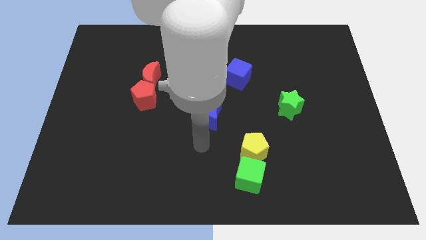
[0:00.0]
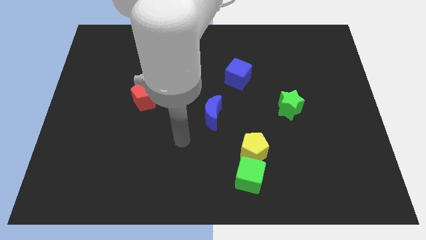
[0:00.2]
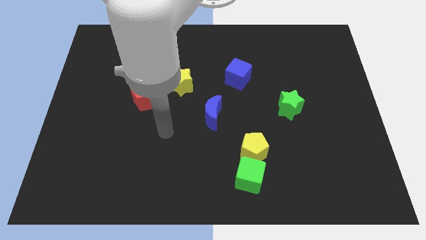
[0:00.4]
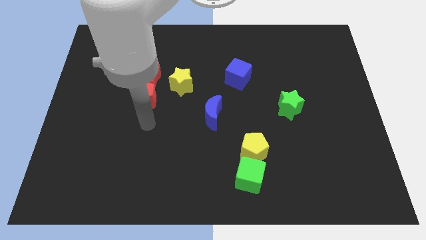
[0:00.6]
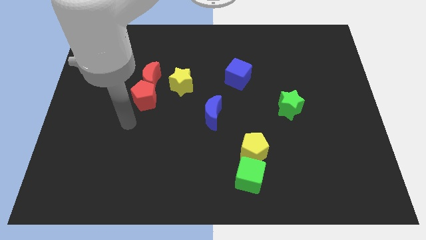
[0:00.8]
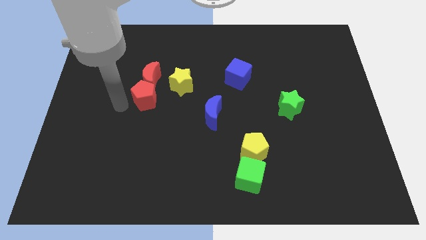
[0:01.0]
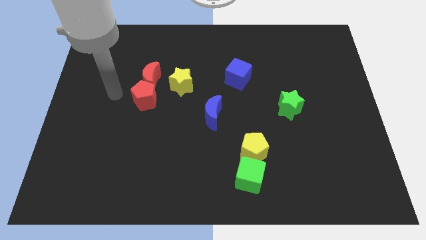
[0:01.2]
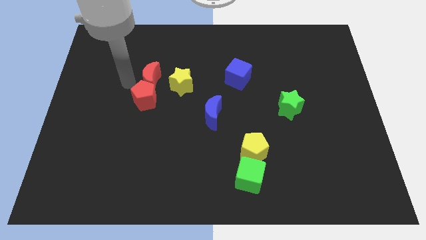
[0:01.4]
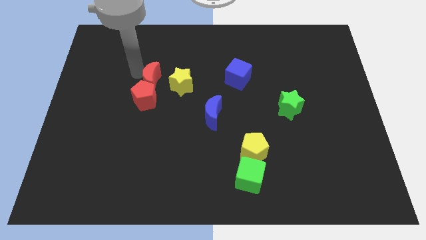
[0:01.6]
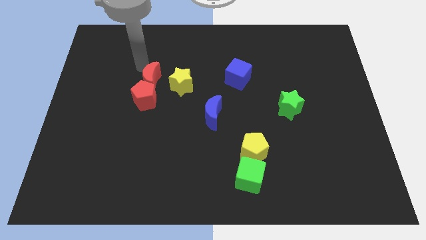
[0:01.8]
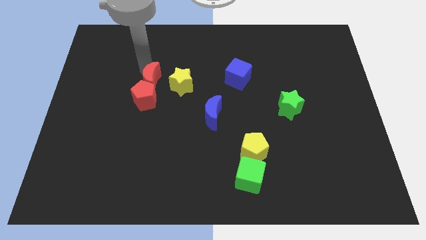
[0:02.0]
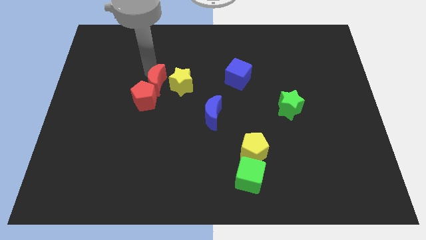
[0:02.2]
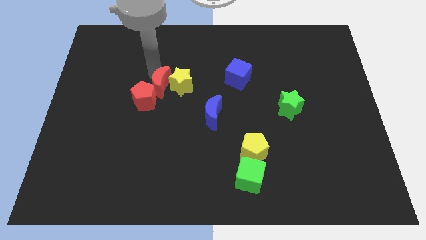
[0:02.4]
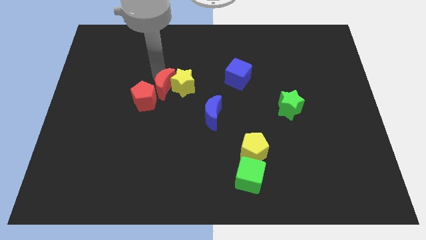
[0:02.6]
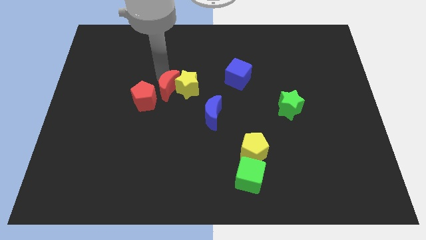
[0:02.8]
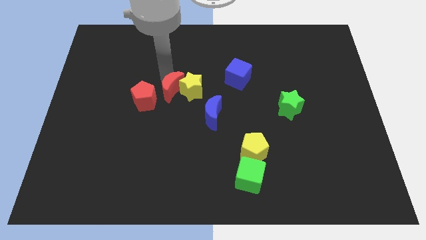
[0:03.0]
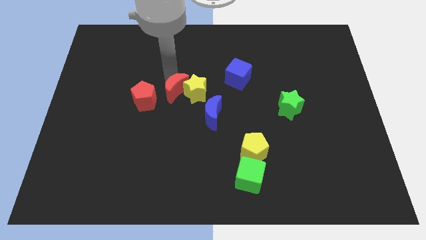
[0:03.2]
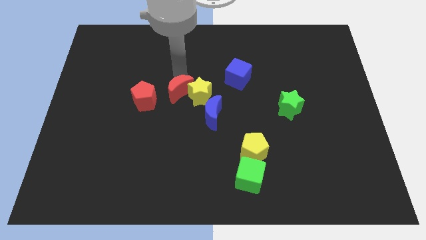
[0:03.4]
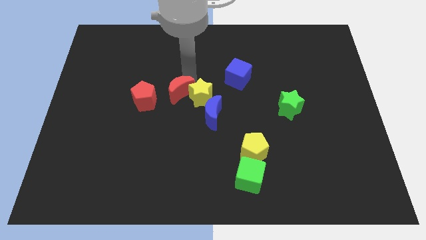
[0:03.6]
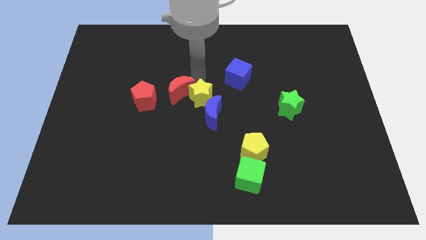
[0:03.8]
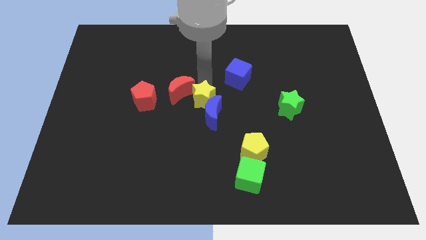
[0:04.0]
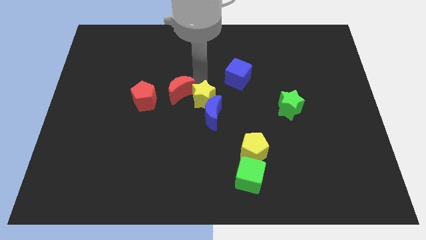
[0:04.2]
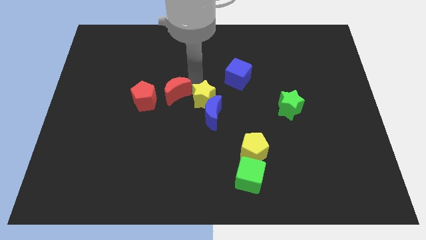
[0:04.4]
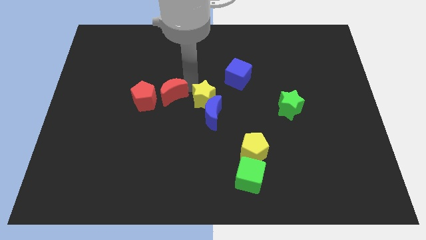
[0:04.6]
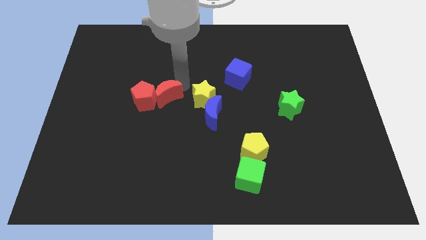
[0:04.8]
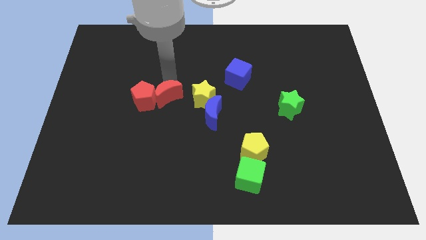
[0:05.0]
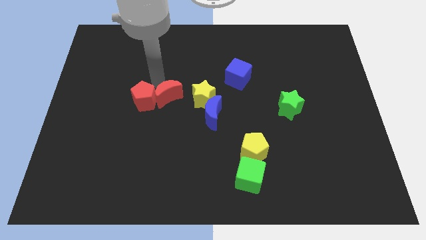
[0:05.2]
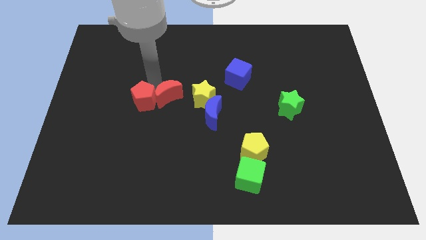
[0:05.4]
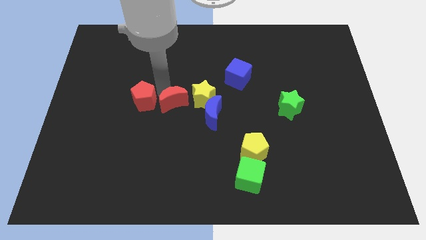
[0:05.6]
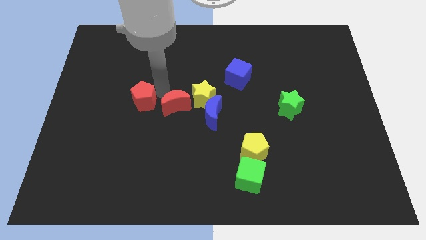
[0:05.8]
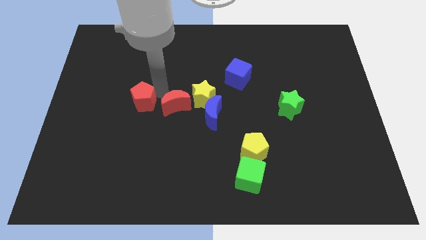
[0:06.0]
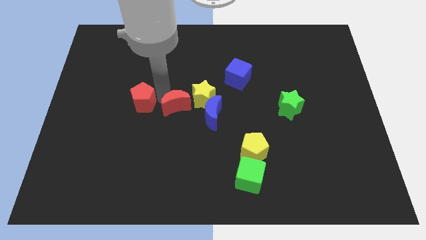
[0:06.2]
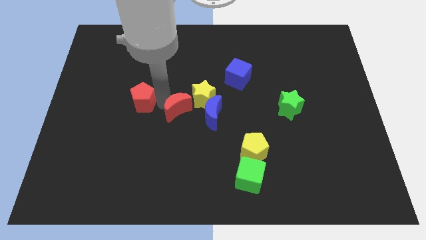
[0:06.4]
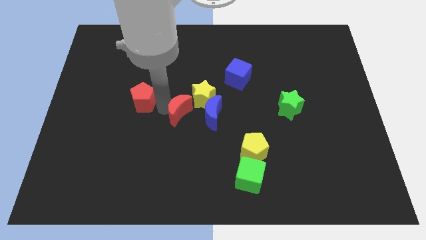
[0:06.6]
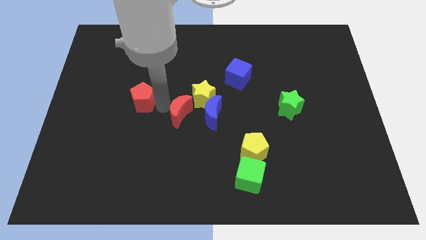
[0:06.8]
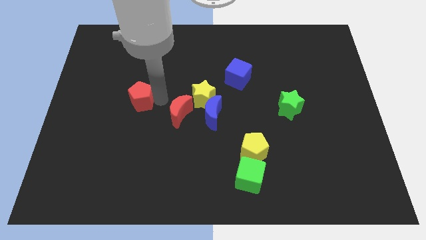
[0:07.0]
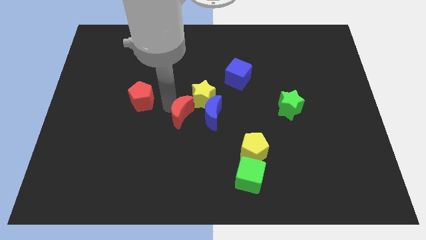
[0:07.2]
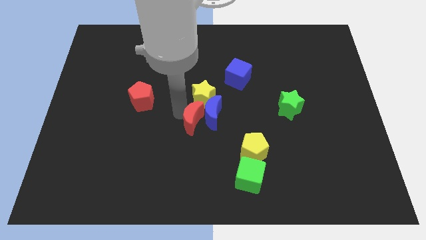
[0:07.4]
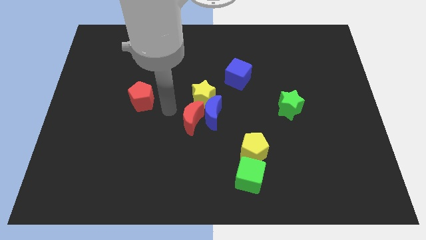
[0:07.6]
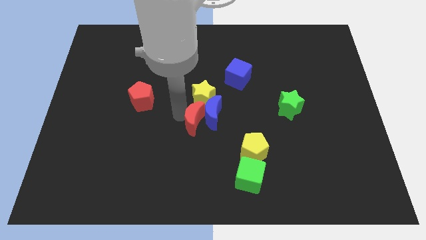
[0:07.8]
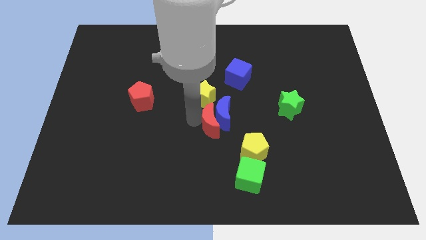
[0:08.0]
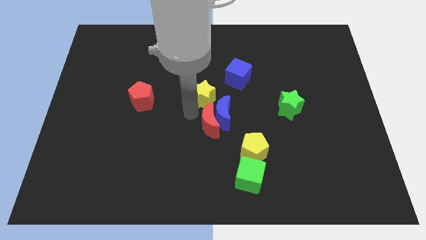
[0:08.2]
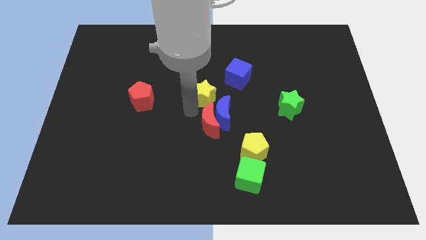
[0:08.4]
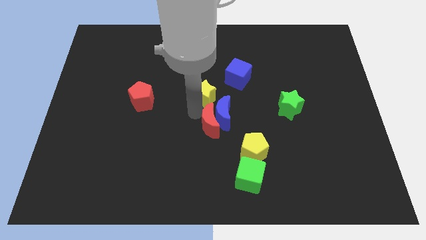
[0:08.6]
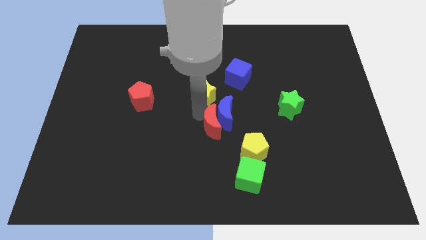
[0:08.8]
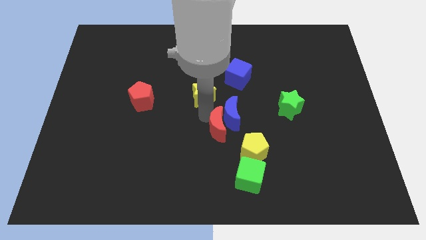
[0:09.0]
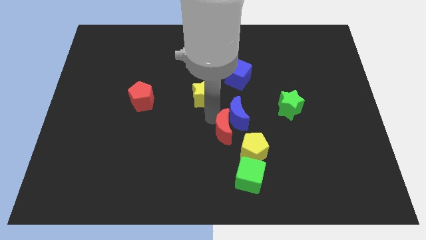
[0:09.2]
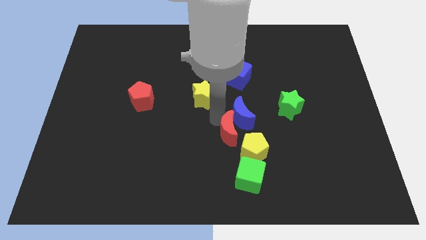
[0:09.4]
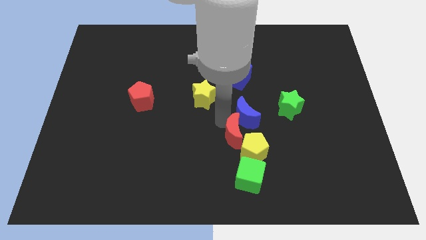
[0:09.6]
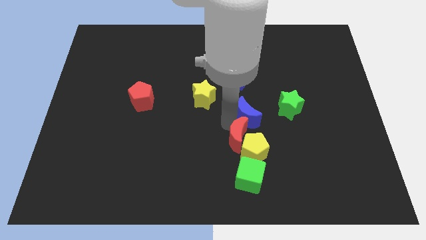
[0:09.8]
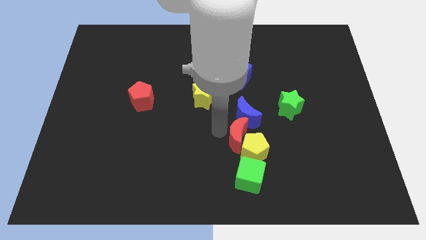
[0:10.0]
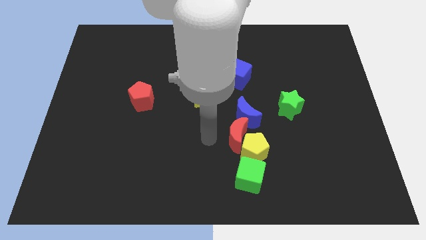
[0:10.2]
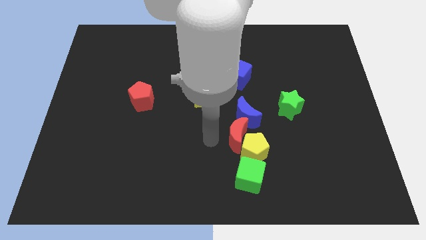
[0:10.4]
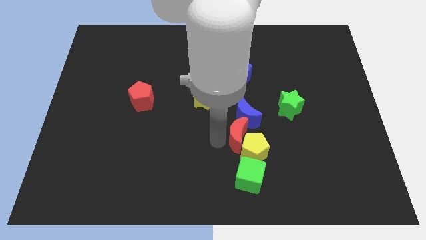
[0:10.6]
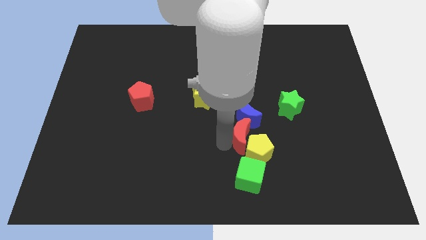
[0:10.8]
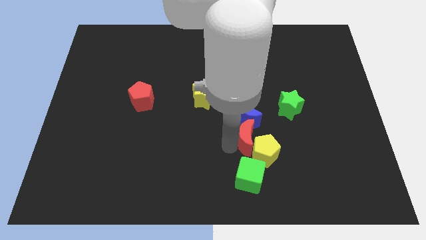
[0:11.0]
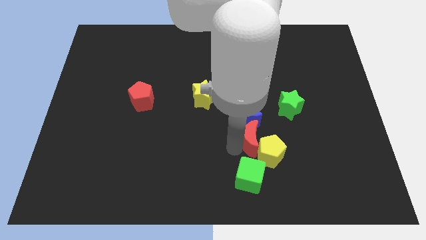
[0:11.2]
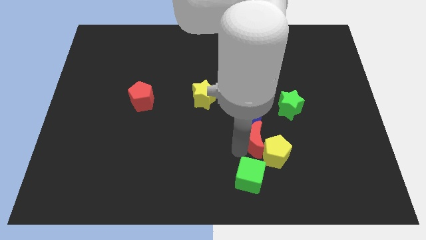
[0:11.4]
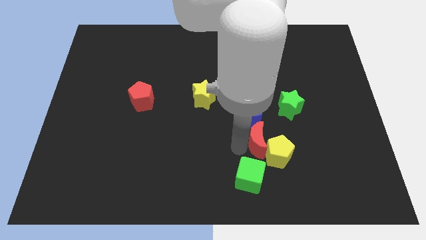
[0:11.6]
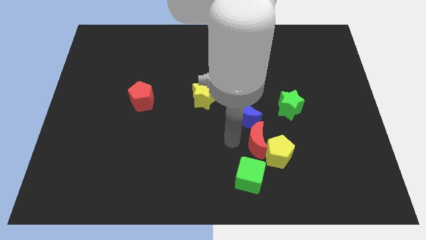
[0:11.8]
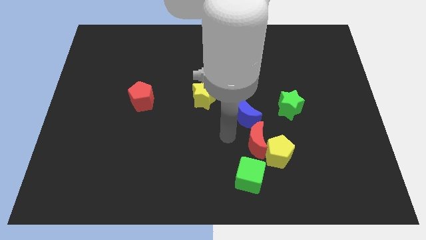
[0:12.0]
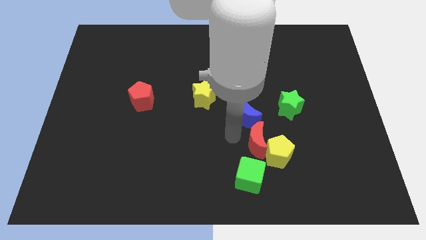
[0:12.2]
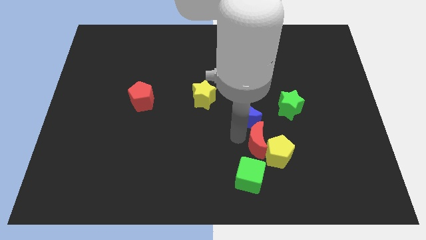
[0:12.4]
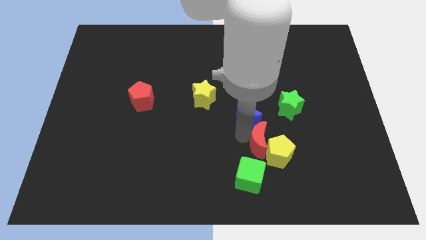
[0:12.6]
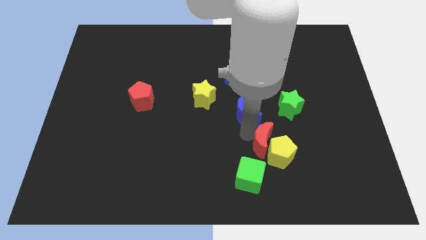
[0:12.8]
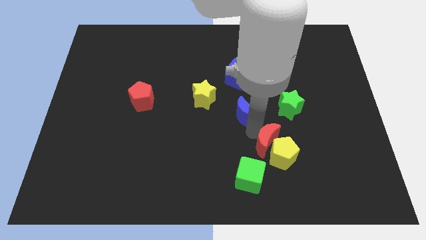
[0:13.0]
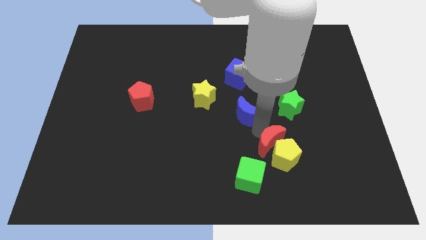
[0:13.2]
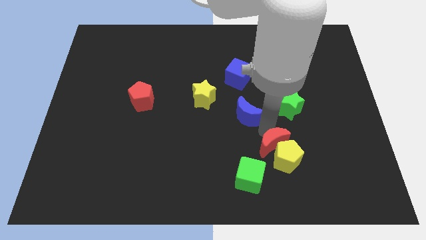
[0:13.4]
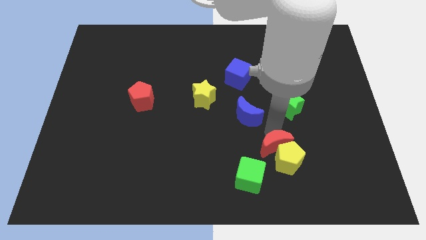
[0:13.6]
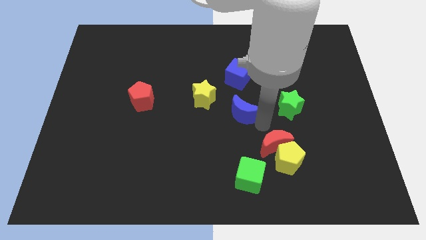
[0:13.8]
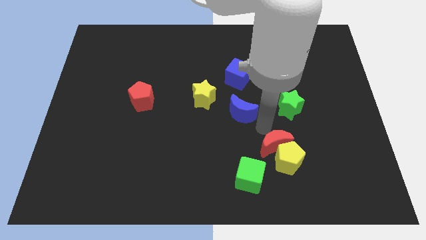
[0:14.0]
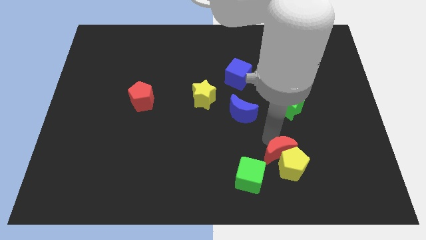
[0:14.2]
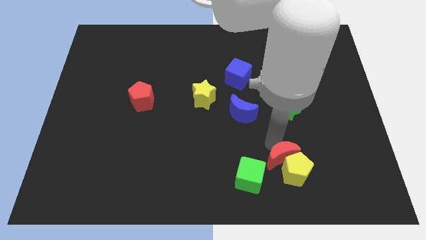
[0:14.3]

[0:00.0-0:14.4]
push the red moon right of the green cube

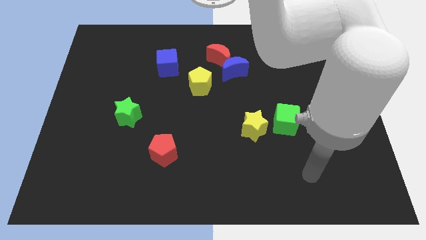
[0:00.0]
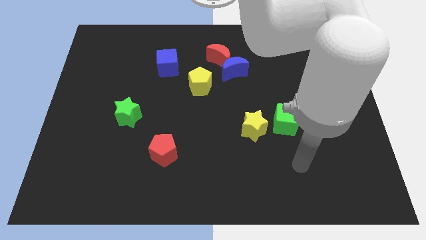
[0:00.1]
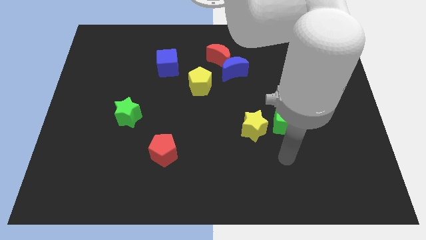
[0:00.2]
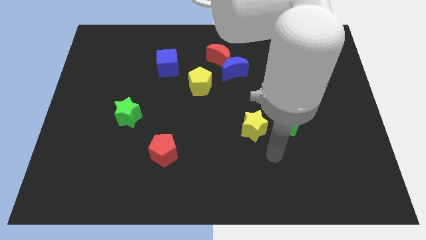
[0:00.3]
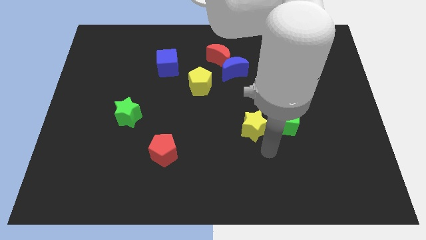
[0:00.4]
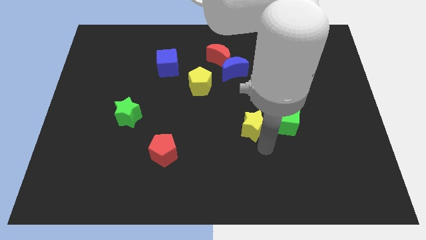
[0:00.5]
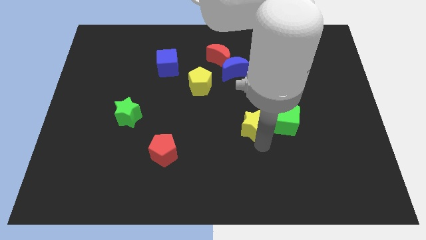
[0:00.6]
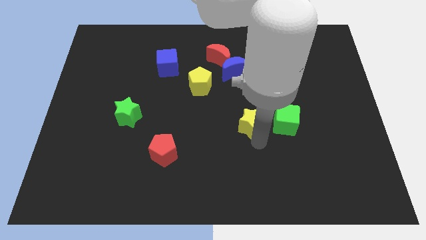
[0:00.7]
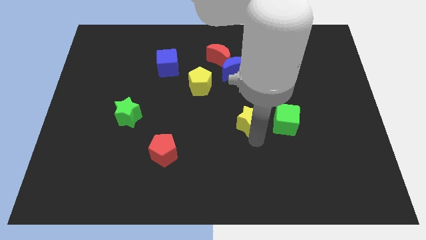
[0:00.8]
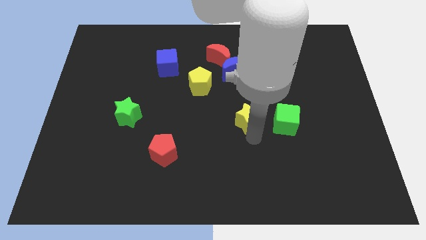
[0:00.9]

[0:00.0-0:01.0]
slide the yellow star below the blue moon
